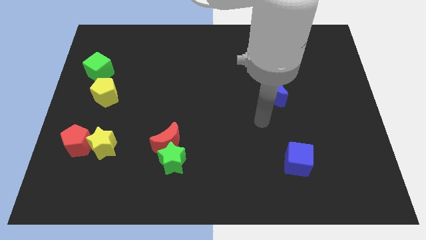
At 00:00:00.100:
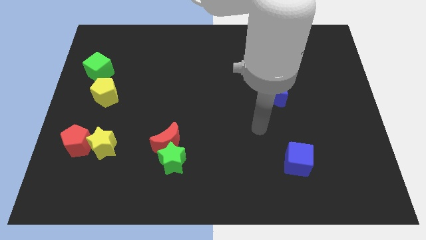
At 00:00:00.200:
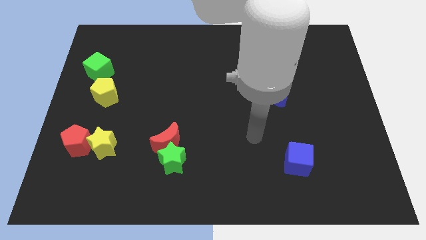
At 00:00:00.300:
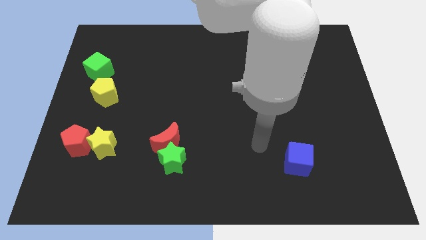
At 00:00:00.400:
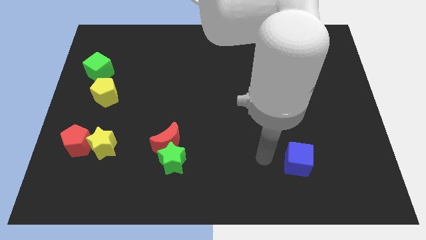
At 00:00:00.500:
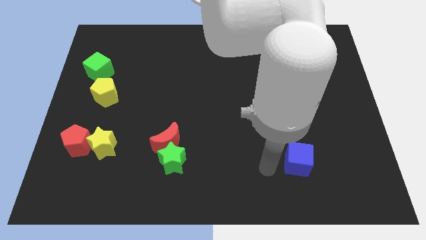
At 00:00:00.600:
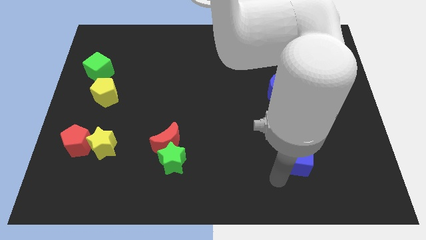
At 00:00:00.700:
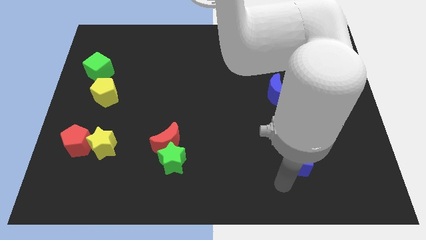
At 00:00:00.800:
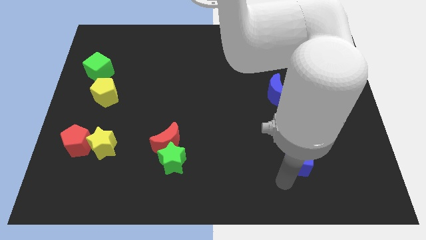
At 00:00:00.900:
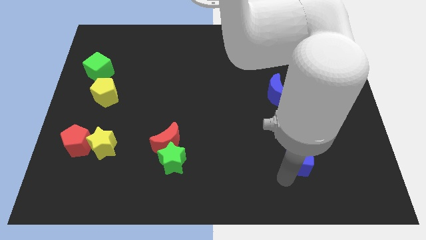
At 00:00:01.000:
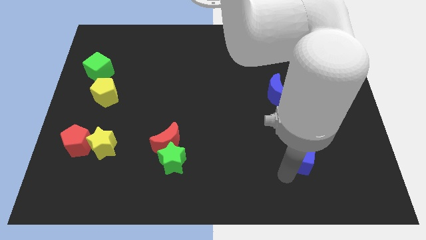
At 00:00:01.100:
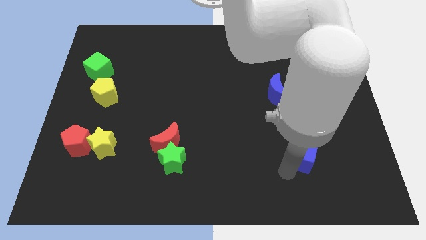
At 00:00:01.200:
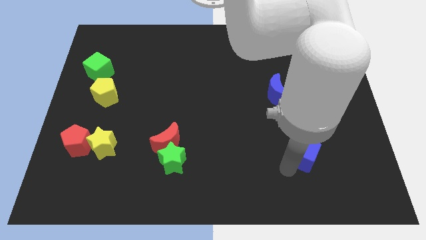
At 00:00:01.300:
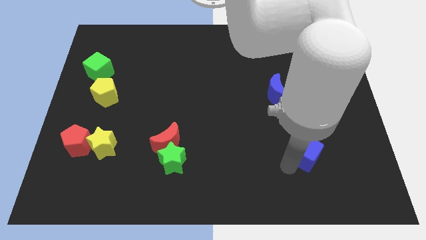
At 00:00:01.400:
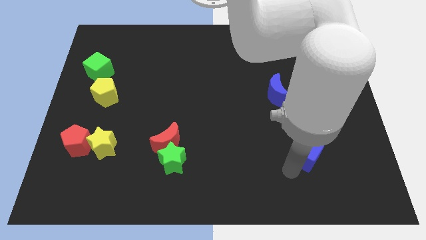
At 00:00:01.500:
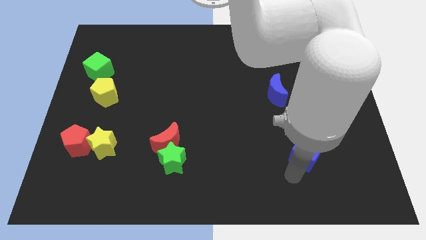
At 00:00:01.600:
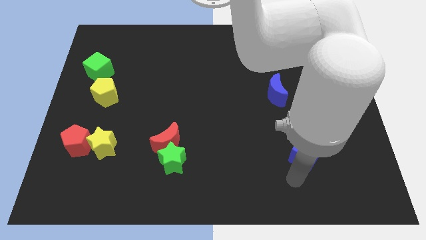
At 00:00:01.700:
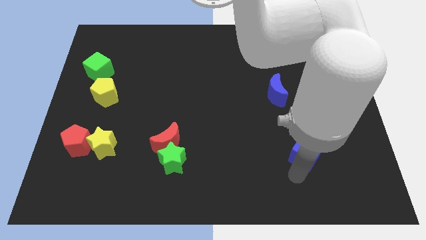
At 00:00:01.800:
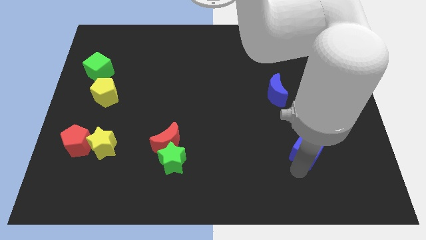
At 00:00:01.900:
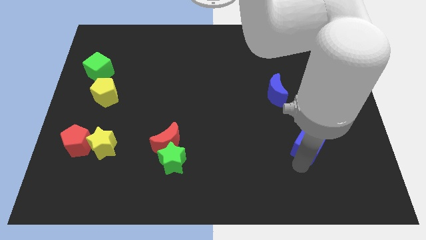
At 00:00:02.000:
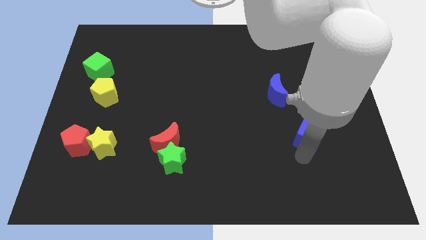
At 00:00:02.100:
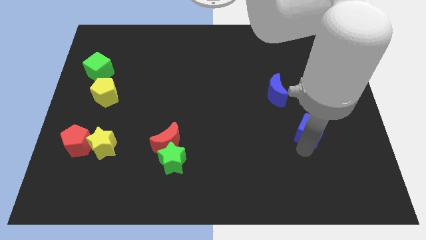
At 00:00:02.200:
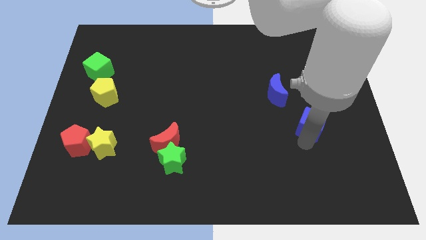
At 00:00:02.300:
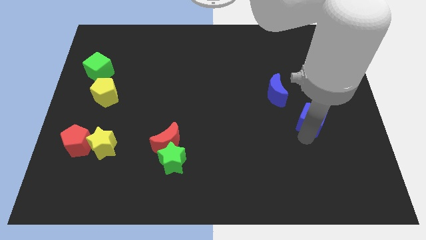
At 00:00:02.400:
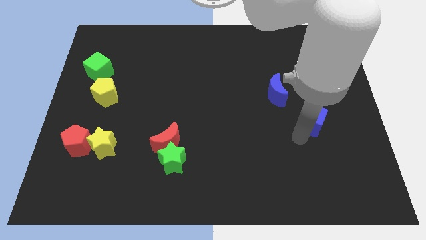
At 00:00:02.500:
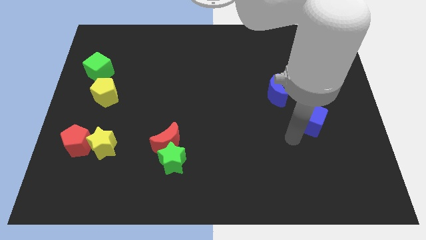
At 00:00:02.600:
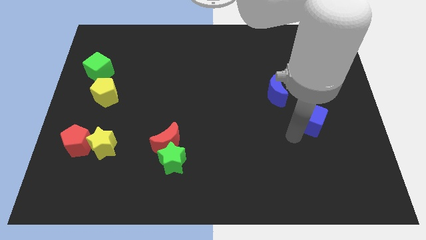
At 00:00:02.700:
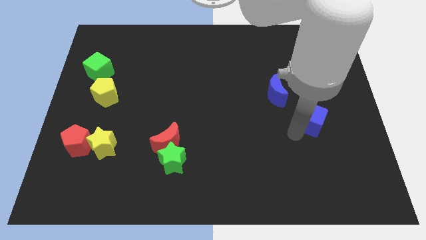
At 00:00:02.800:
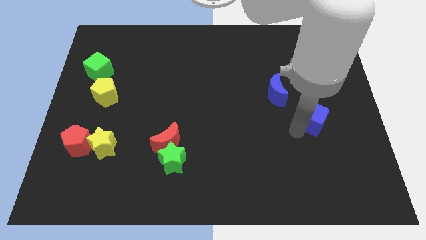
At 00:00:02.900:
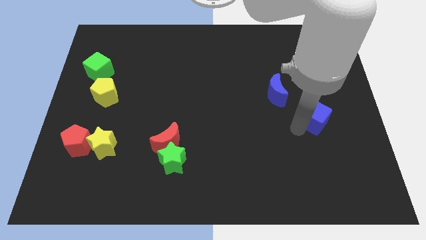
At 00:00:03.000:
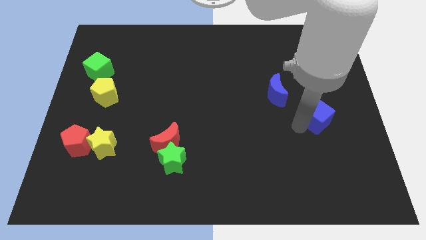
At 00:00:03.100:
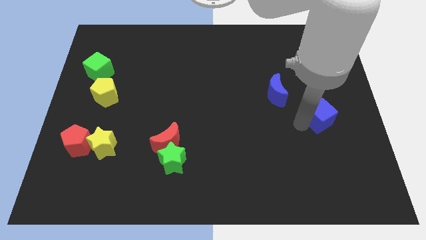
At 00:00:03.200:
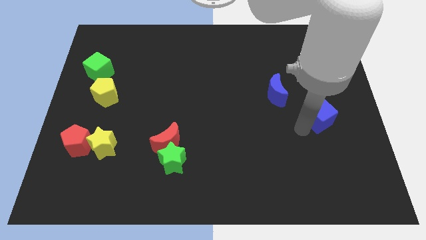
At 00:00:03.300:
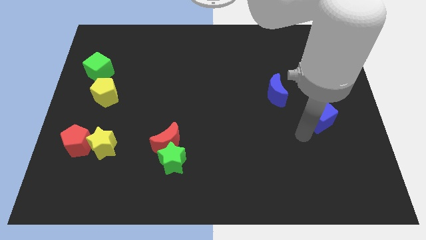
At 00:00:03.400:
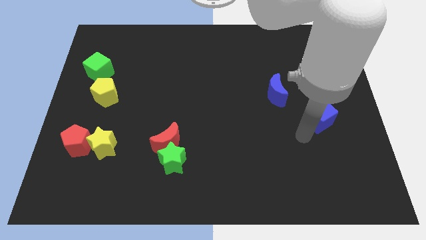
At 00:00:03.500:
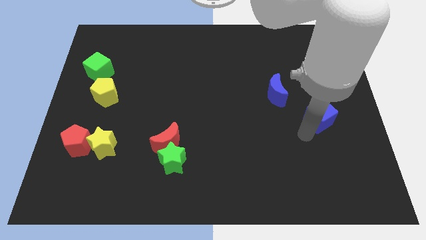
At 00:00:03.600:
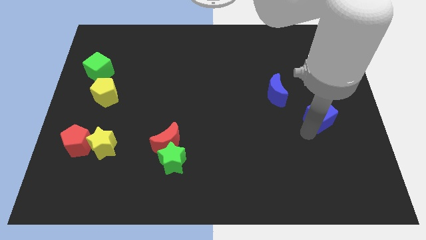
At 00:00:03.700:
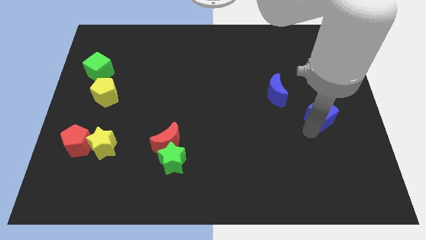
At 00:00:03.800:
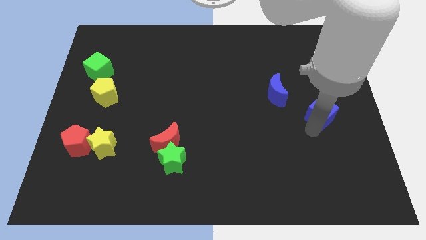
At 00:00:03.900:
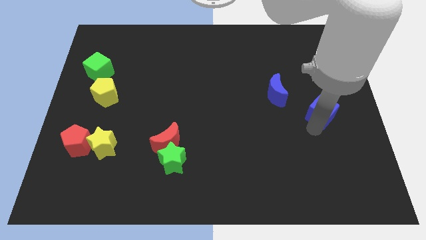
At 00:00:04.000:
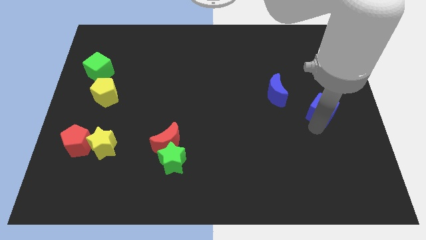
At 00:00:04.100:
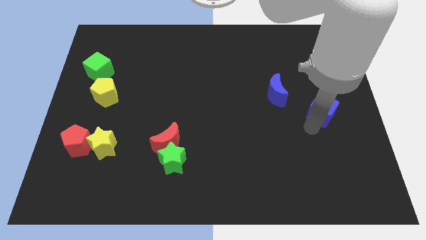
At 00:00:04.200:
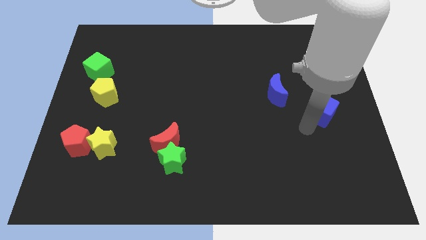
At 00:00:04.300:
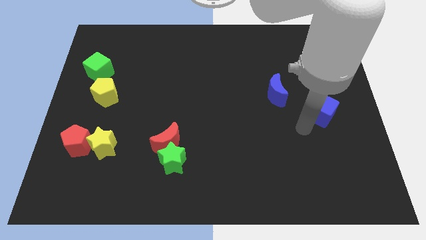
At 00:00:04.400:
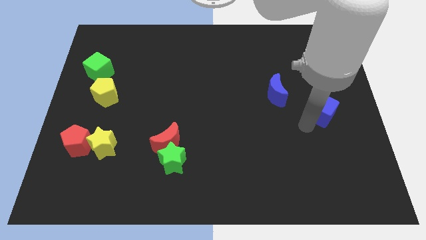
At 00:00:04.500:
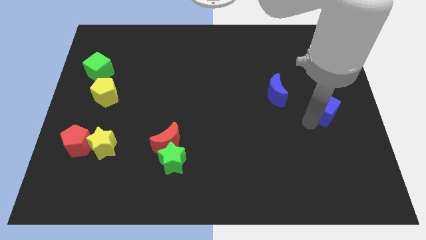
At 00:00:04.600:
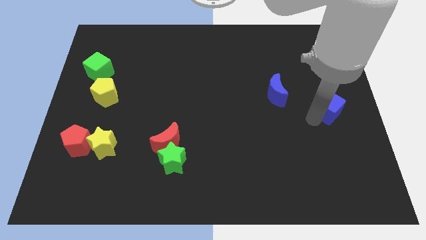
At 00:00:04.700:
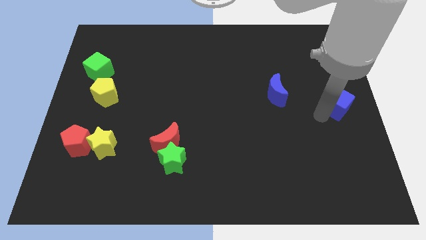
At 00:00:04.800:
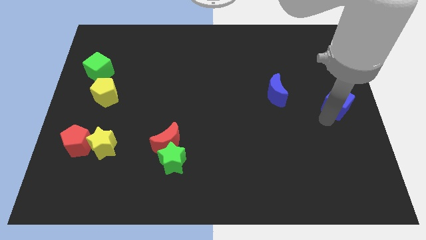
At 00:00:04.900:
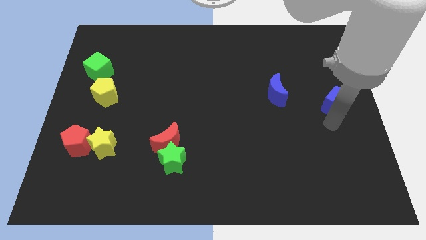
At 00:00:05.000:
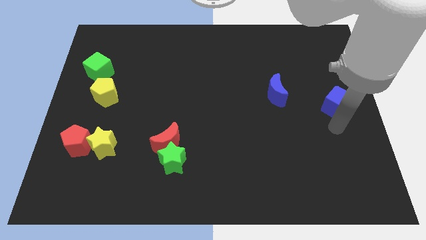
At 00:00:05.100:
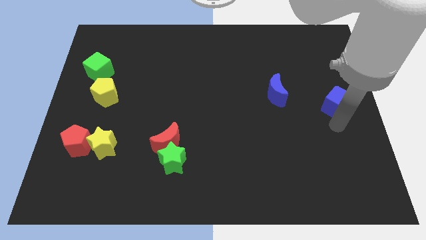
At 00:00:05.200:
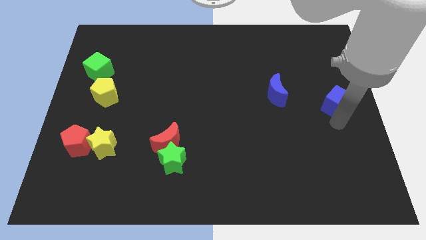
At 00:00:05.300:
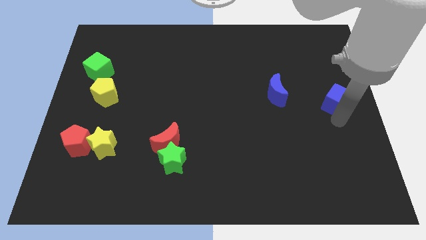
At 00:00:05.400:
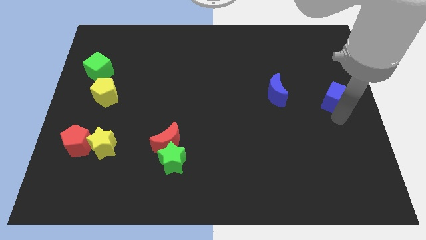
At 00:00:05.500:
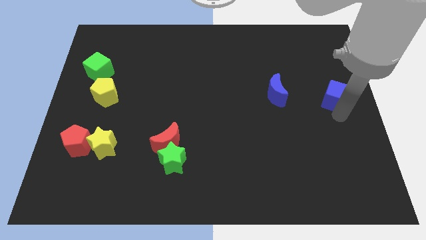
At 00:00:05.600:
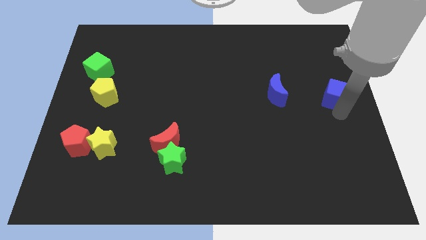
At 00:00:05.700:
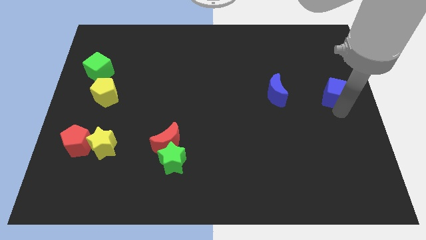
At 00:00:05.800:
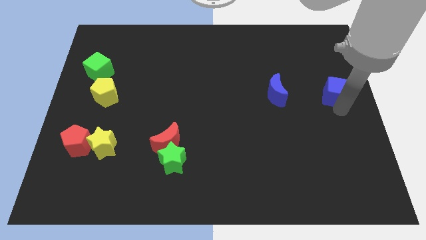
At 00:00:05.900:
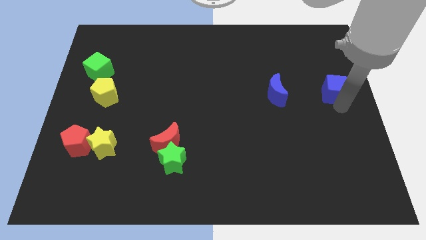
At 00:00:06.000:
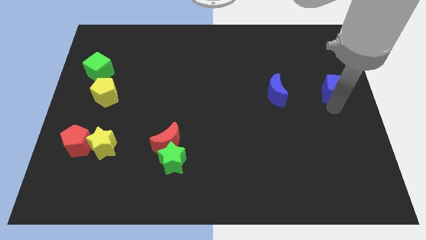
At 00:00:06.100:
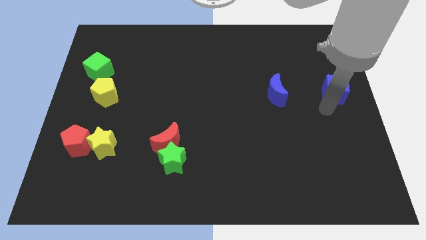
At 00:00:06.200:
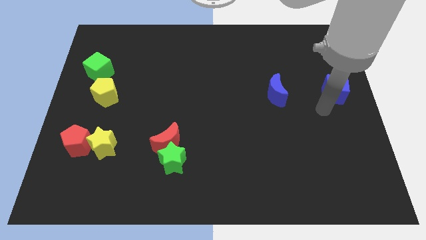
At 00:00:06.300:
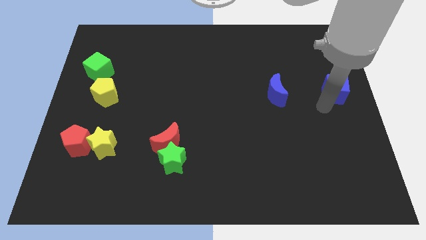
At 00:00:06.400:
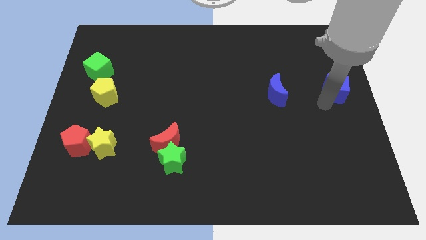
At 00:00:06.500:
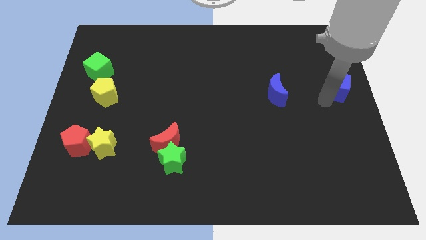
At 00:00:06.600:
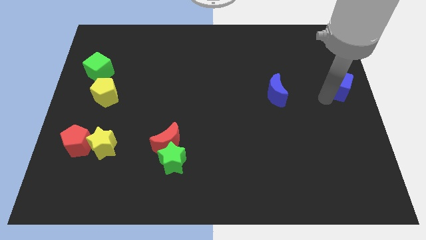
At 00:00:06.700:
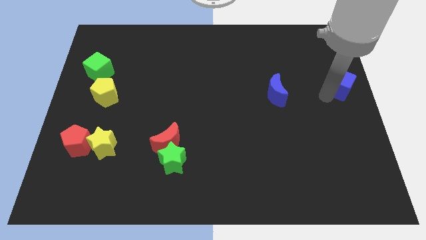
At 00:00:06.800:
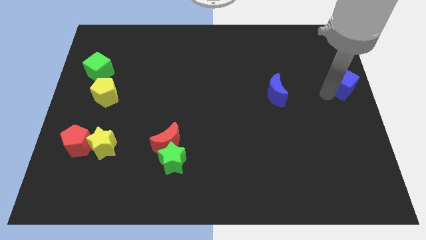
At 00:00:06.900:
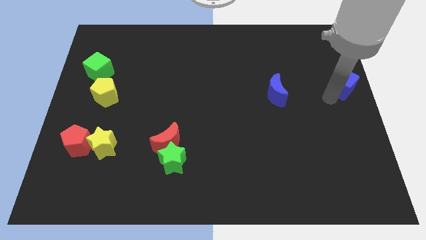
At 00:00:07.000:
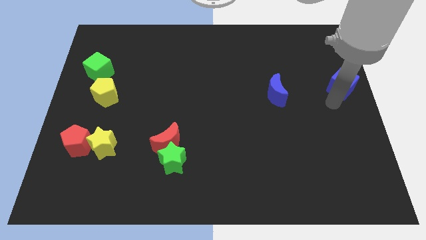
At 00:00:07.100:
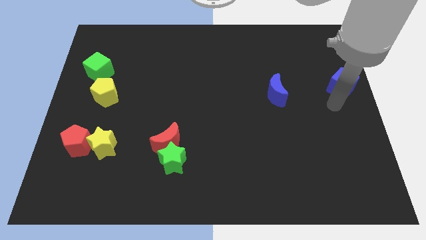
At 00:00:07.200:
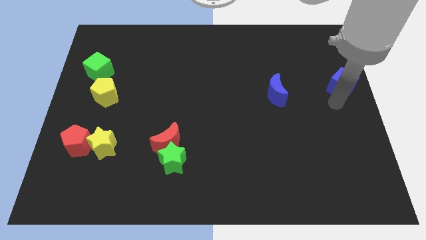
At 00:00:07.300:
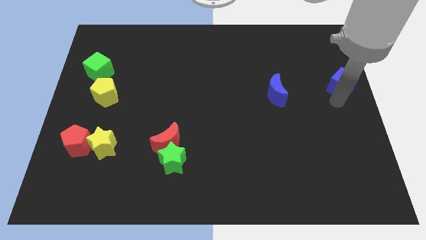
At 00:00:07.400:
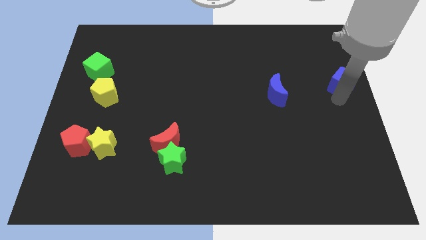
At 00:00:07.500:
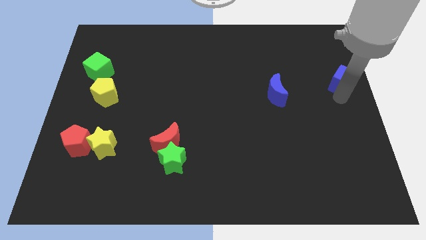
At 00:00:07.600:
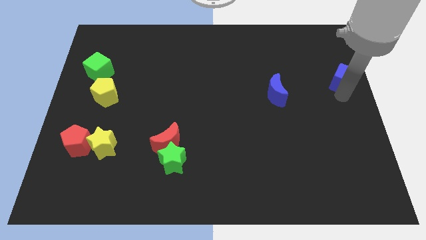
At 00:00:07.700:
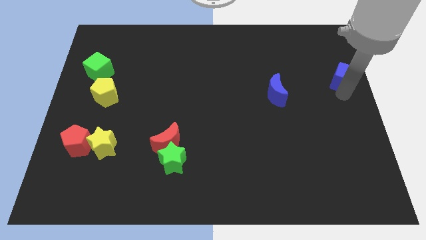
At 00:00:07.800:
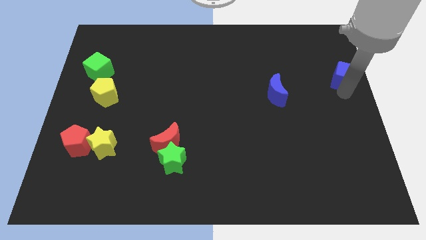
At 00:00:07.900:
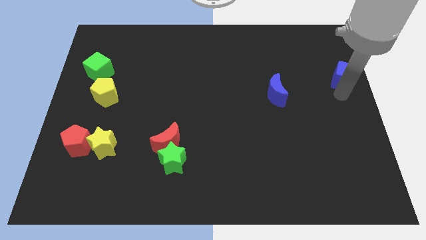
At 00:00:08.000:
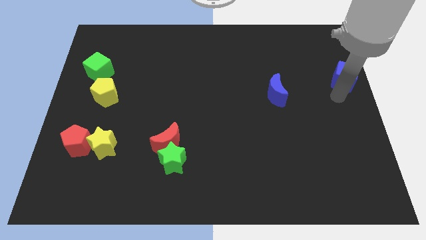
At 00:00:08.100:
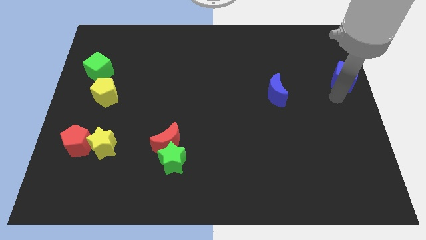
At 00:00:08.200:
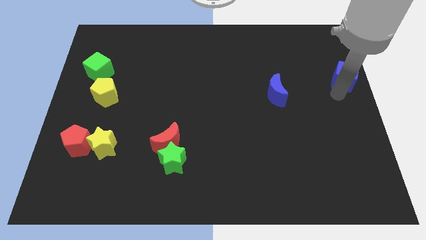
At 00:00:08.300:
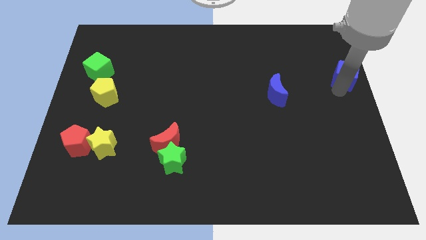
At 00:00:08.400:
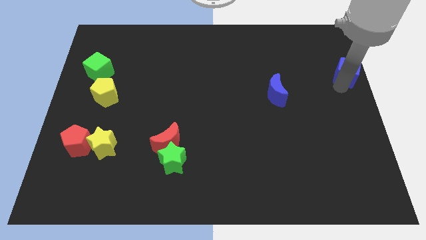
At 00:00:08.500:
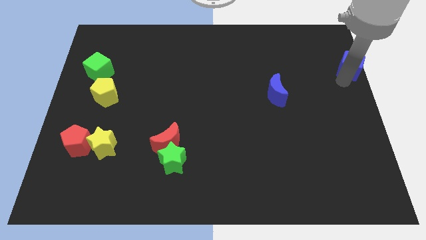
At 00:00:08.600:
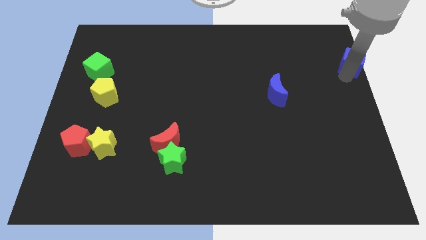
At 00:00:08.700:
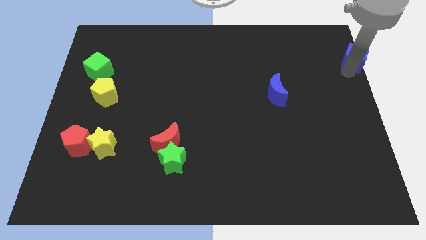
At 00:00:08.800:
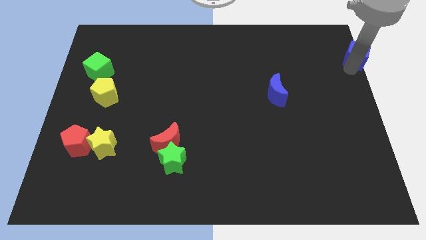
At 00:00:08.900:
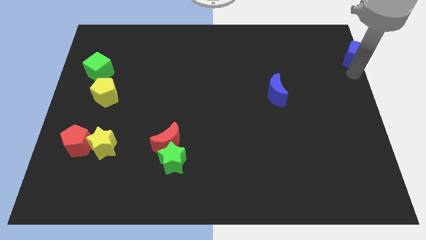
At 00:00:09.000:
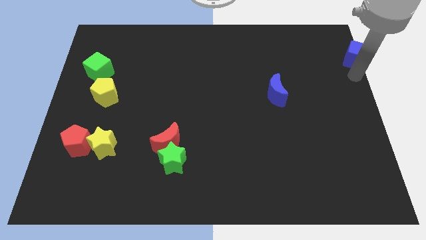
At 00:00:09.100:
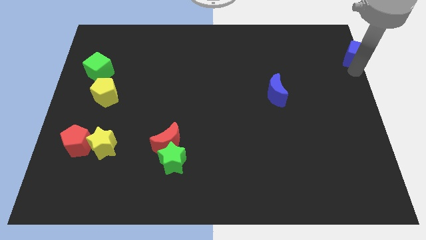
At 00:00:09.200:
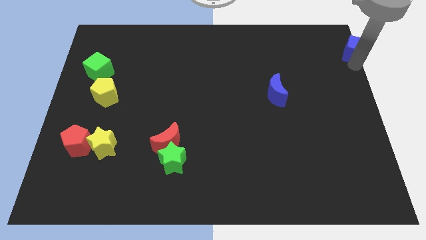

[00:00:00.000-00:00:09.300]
slide the blue cube to the top right
